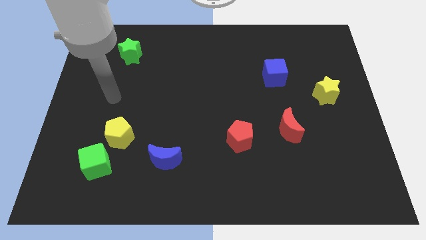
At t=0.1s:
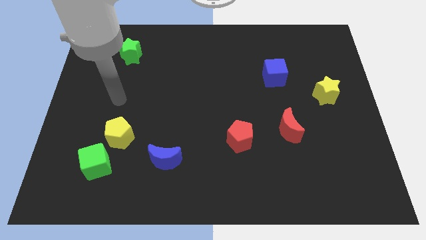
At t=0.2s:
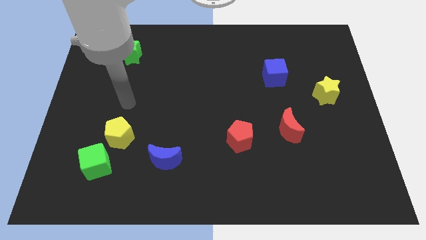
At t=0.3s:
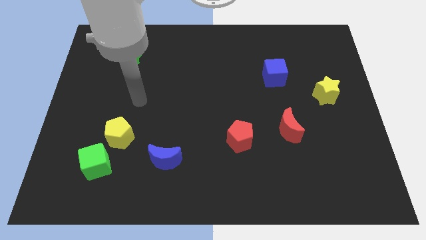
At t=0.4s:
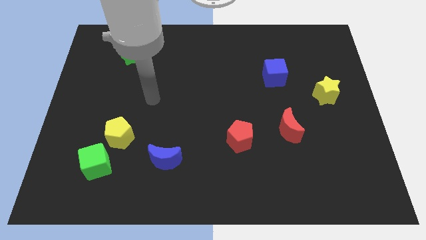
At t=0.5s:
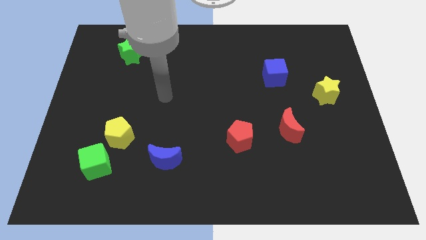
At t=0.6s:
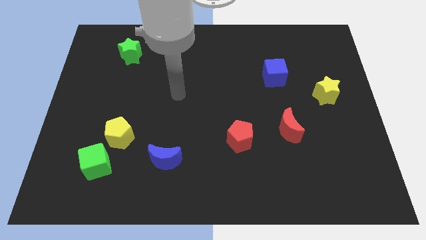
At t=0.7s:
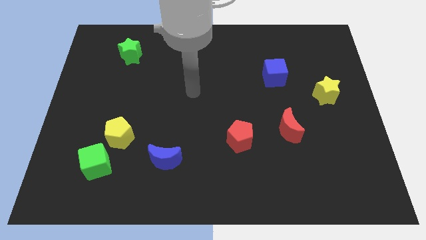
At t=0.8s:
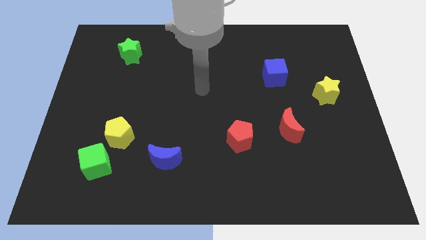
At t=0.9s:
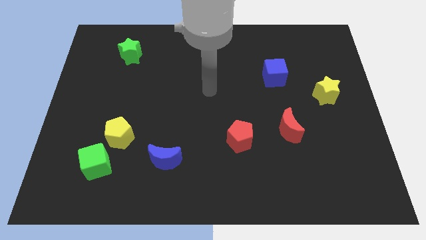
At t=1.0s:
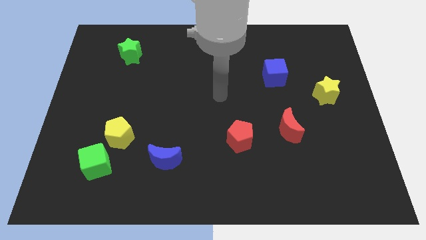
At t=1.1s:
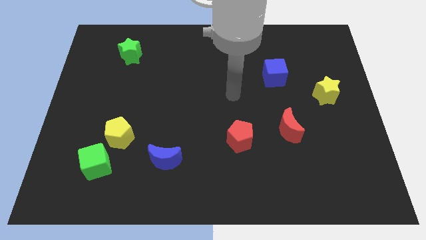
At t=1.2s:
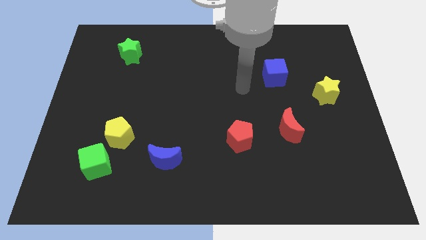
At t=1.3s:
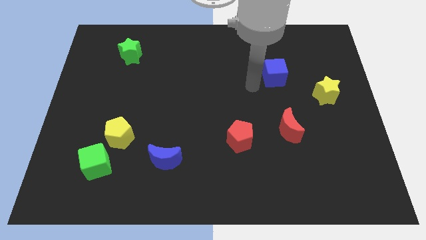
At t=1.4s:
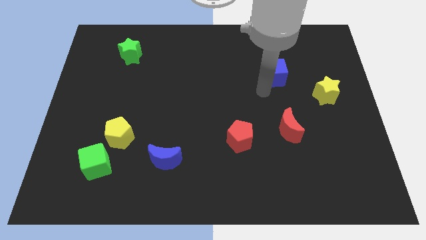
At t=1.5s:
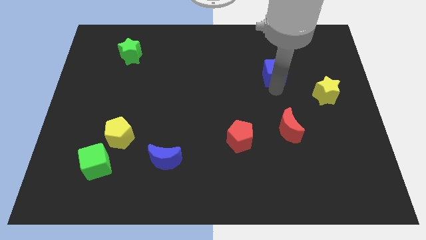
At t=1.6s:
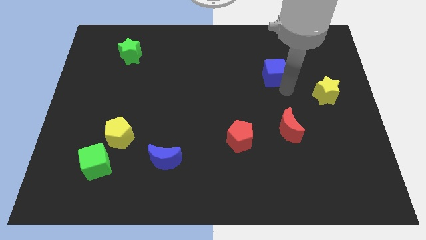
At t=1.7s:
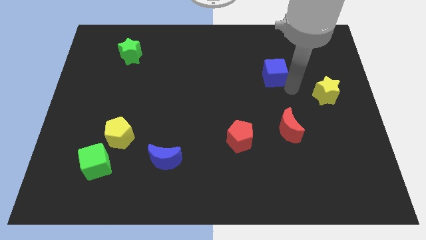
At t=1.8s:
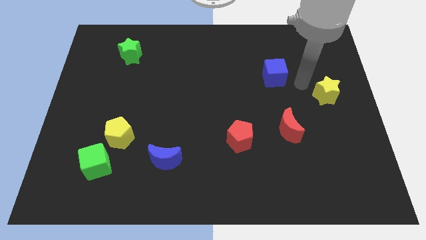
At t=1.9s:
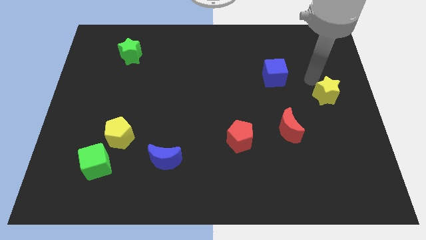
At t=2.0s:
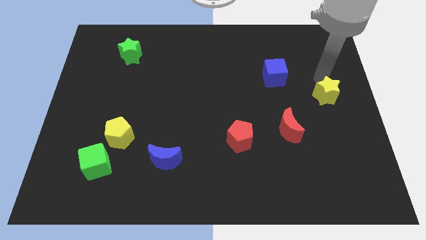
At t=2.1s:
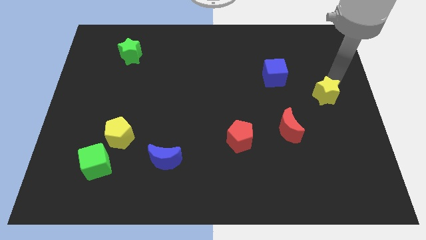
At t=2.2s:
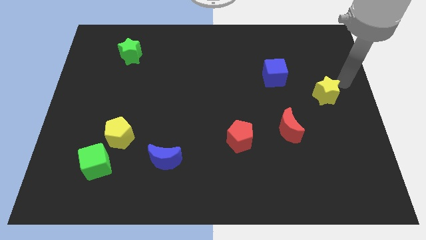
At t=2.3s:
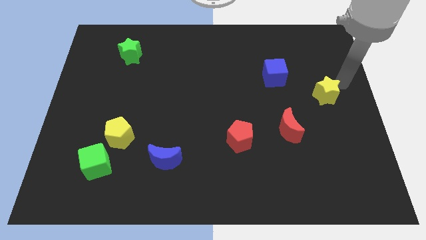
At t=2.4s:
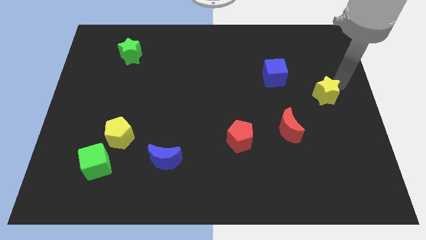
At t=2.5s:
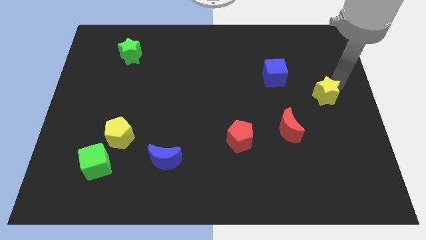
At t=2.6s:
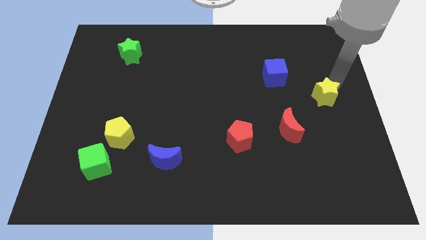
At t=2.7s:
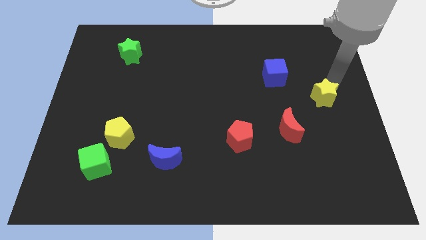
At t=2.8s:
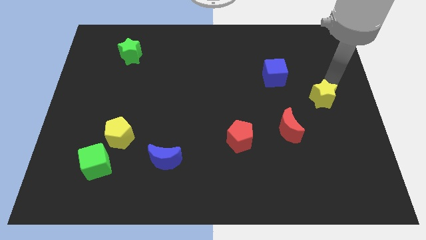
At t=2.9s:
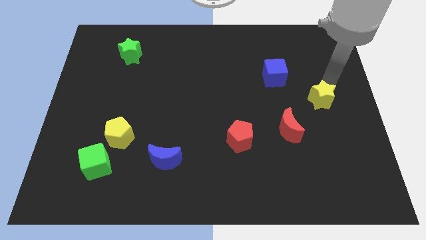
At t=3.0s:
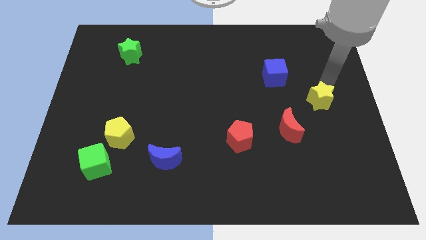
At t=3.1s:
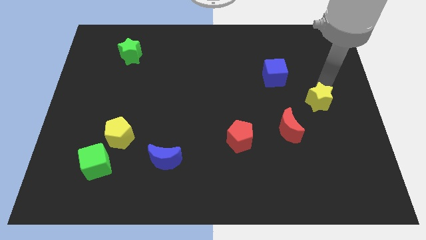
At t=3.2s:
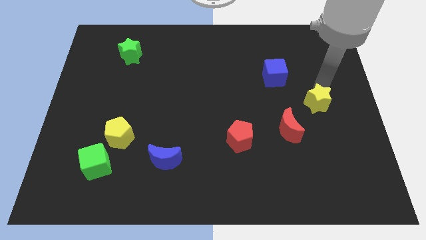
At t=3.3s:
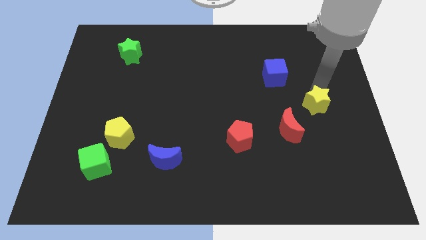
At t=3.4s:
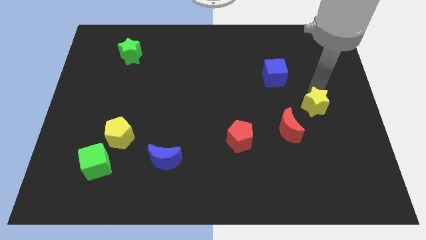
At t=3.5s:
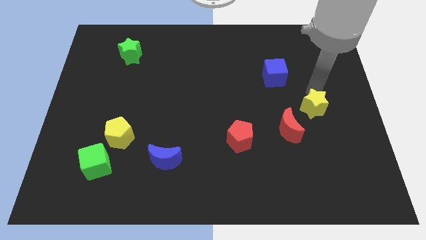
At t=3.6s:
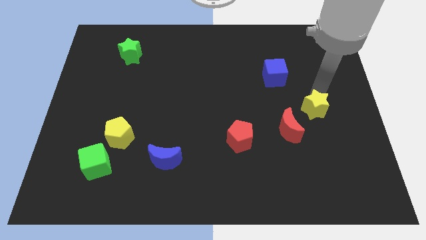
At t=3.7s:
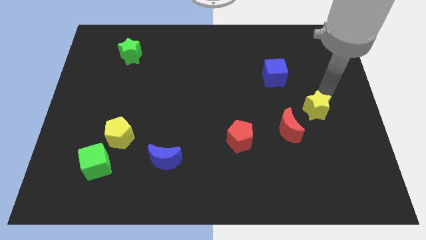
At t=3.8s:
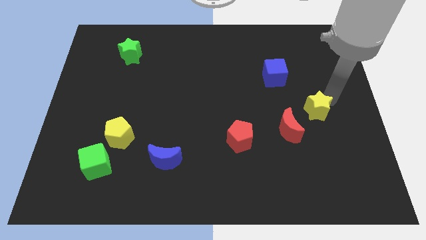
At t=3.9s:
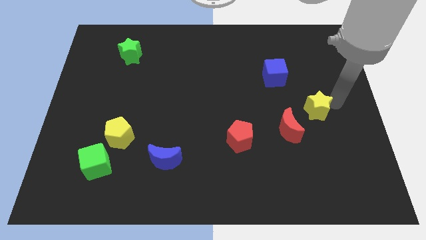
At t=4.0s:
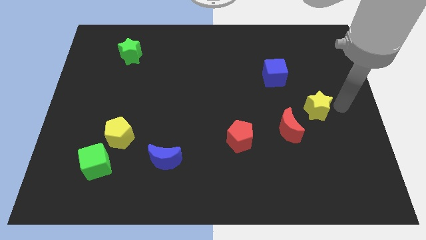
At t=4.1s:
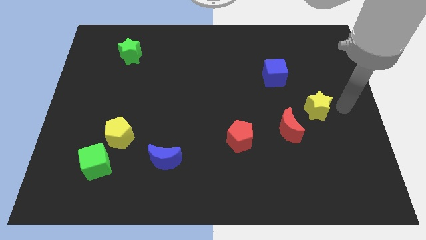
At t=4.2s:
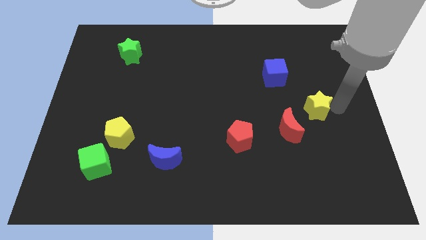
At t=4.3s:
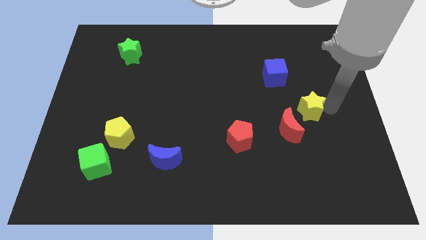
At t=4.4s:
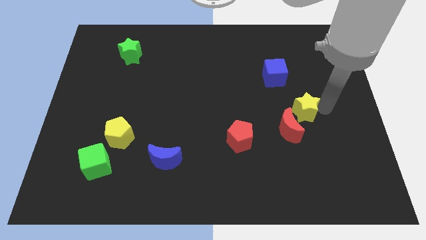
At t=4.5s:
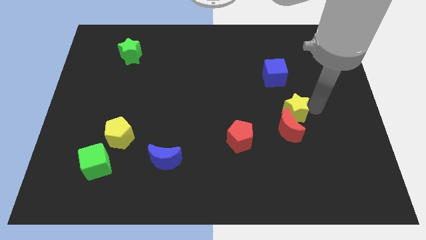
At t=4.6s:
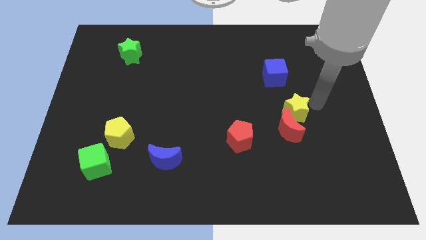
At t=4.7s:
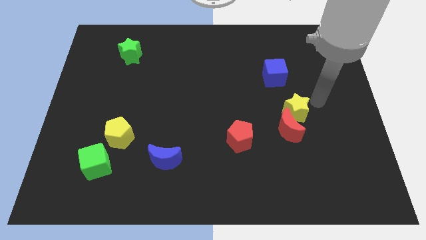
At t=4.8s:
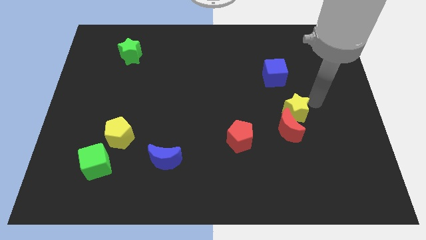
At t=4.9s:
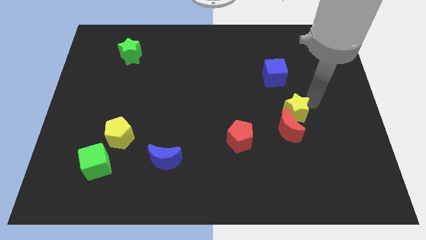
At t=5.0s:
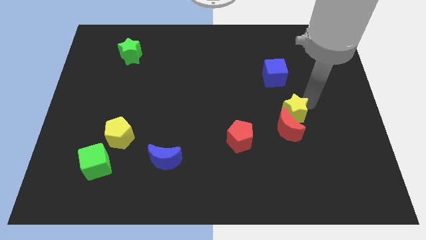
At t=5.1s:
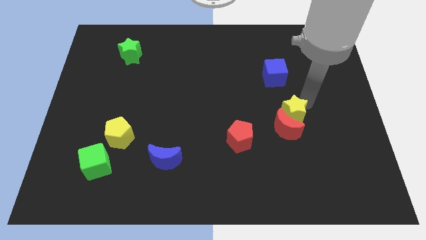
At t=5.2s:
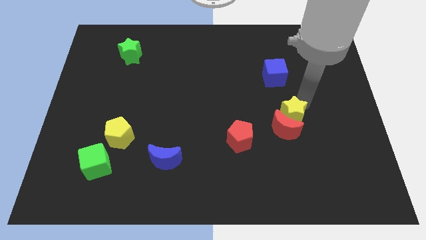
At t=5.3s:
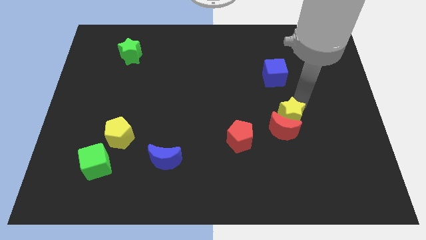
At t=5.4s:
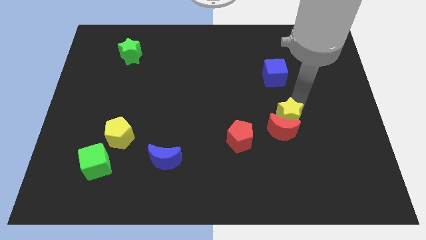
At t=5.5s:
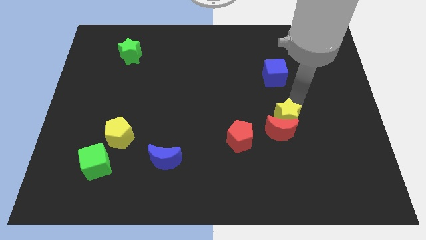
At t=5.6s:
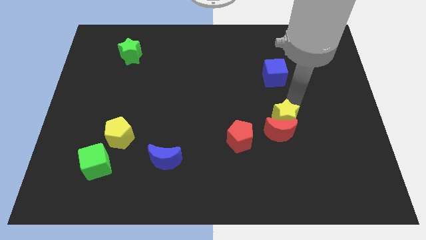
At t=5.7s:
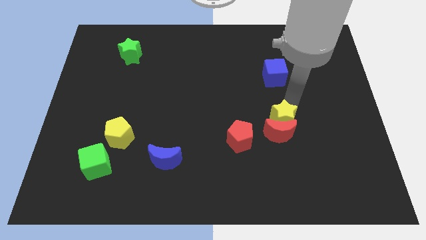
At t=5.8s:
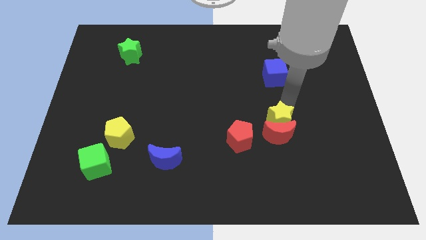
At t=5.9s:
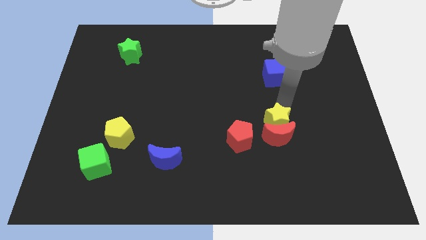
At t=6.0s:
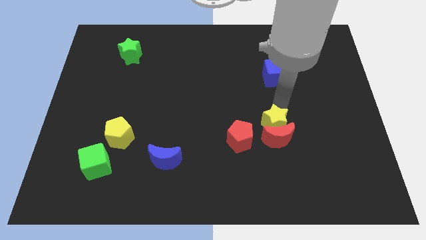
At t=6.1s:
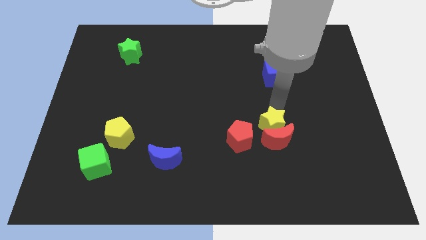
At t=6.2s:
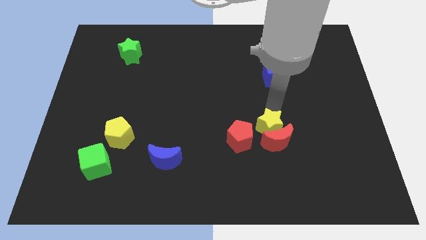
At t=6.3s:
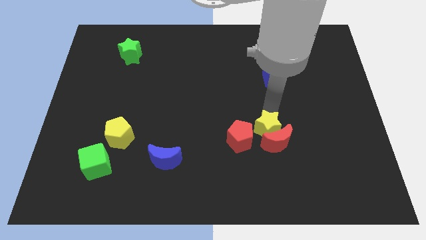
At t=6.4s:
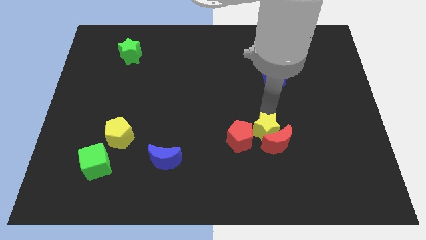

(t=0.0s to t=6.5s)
put the yellow star next to the red pentagon

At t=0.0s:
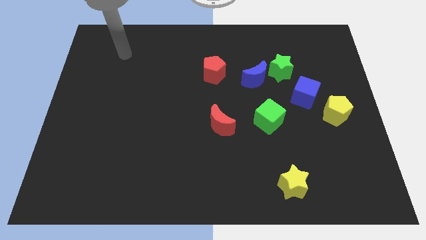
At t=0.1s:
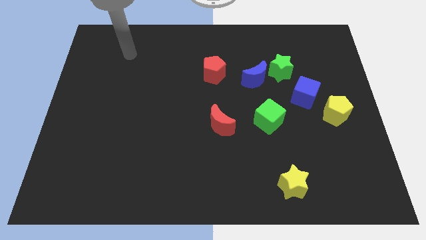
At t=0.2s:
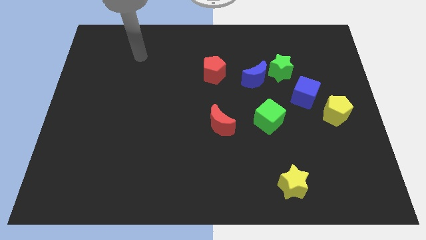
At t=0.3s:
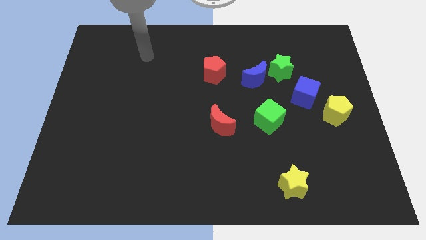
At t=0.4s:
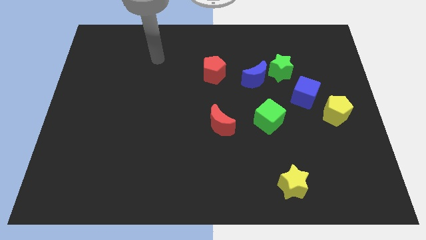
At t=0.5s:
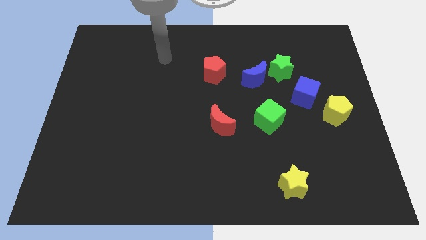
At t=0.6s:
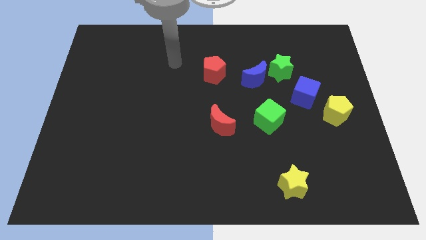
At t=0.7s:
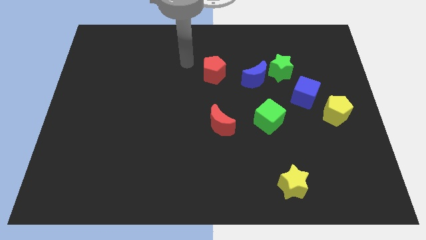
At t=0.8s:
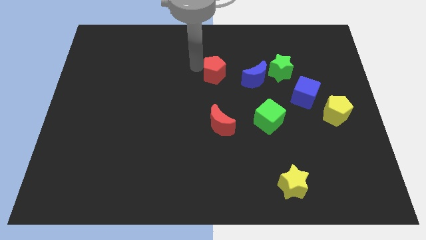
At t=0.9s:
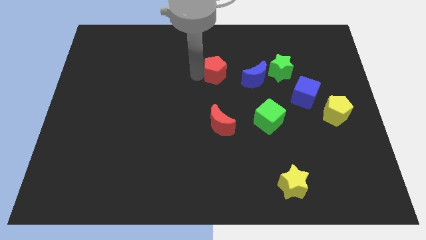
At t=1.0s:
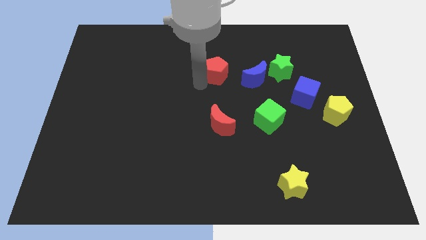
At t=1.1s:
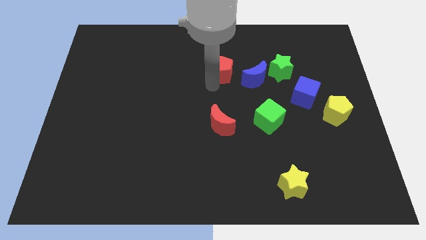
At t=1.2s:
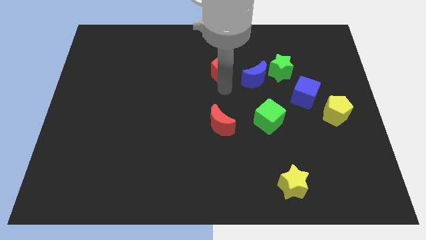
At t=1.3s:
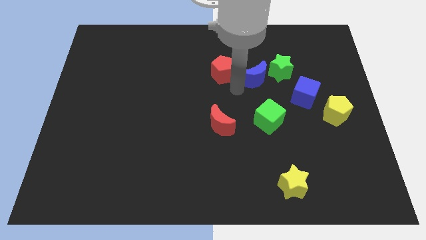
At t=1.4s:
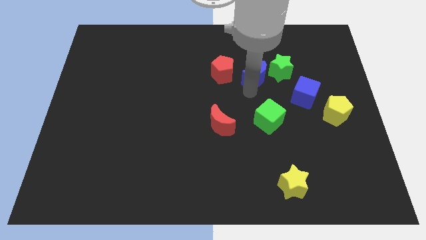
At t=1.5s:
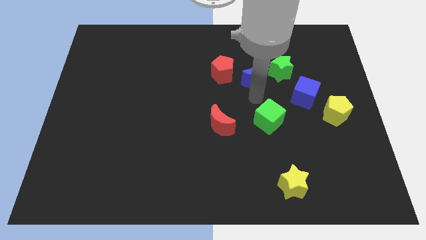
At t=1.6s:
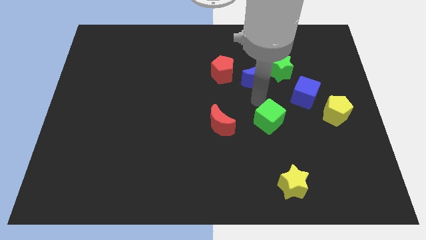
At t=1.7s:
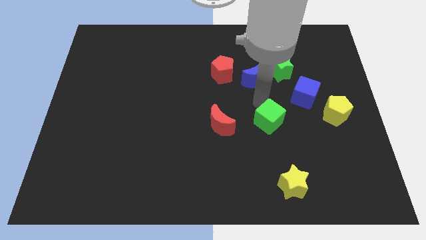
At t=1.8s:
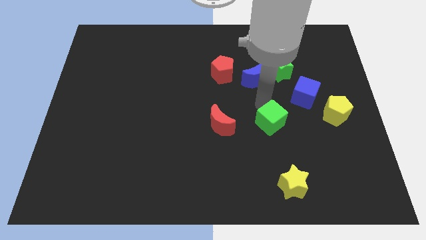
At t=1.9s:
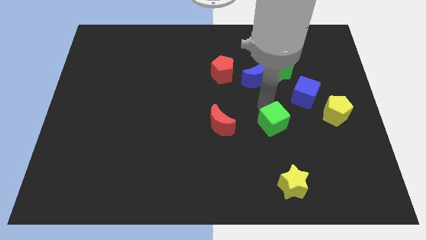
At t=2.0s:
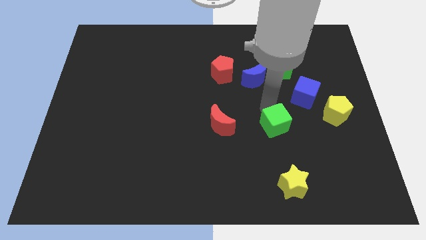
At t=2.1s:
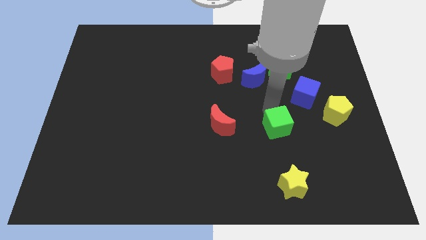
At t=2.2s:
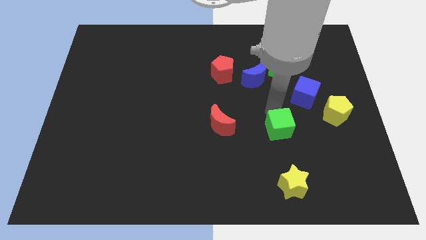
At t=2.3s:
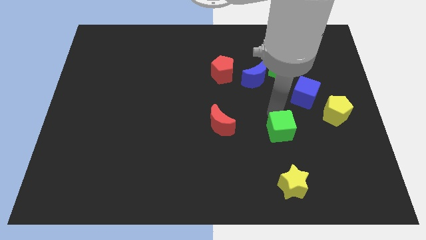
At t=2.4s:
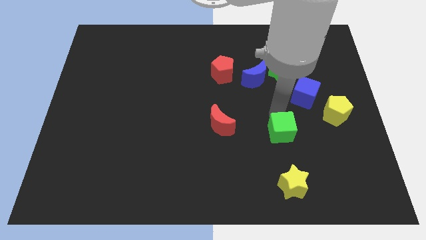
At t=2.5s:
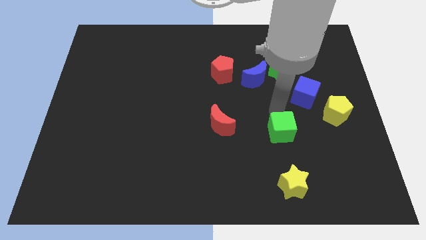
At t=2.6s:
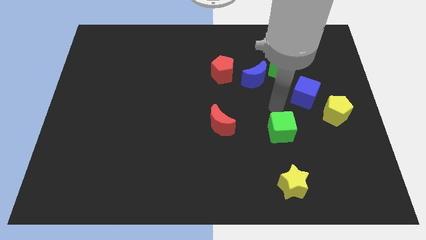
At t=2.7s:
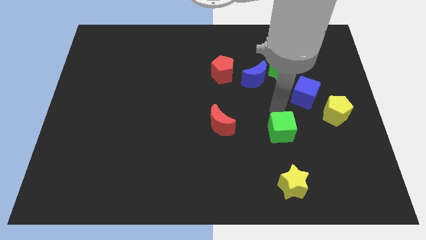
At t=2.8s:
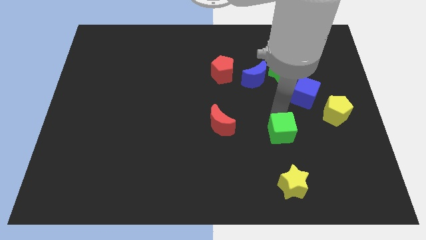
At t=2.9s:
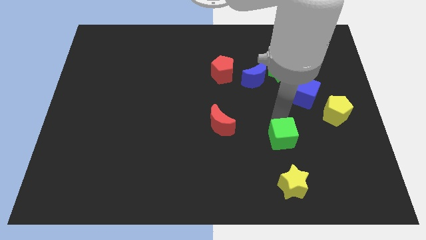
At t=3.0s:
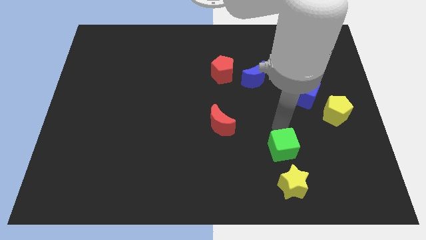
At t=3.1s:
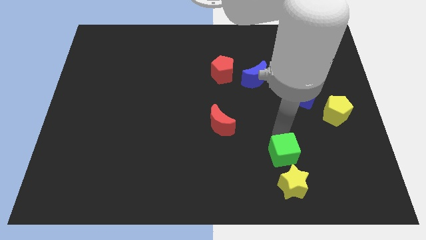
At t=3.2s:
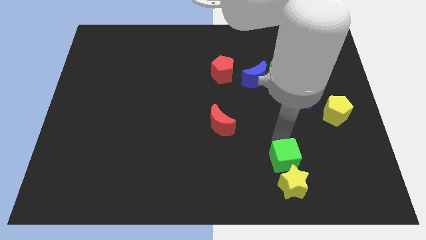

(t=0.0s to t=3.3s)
move the green cube next to the yellow star
